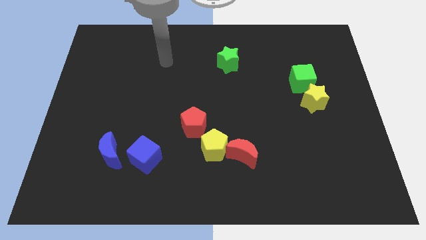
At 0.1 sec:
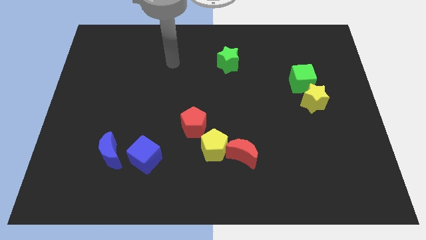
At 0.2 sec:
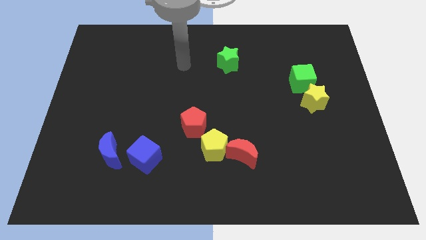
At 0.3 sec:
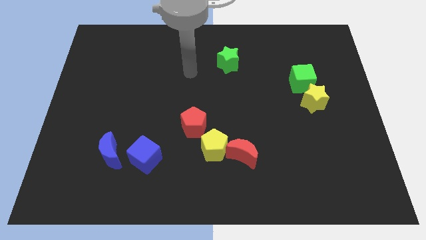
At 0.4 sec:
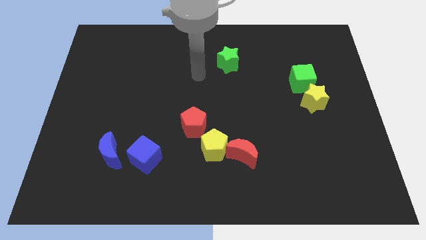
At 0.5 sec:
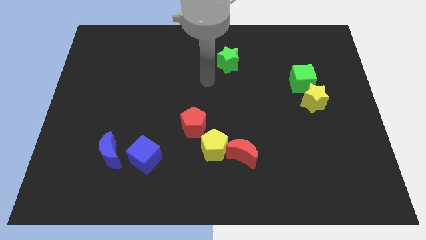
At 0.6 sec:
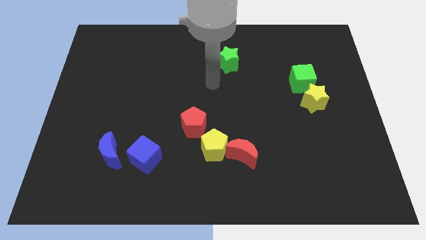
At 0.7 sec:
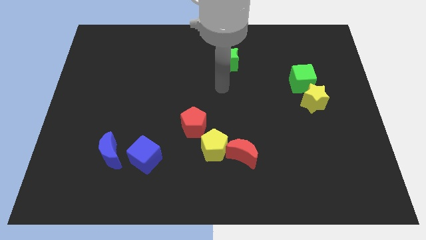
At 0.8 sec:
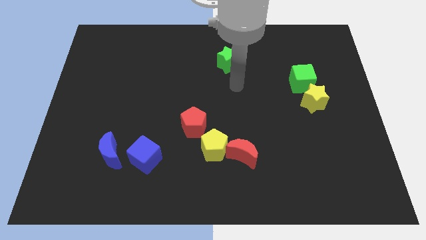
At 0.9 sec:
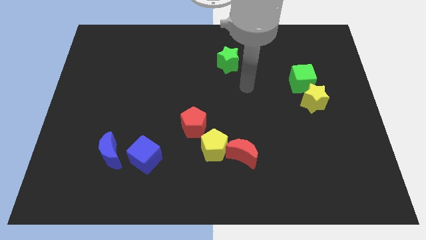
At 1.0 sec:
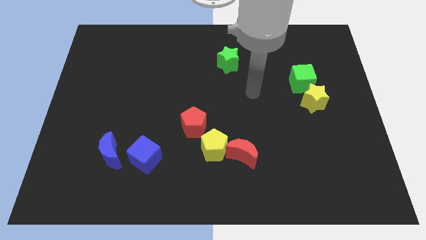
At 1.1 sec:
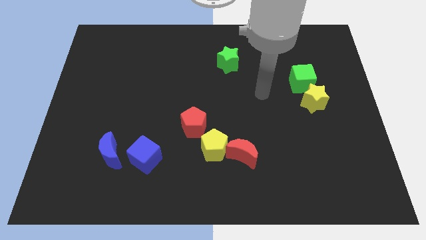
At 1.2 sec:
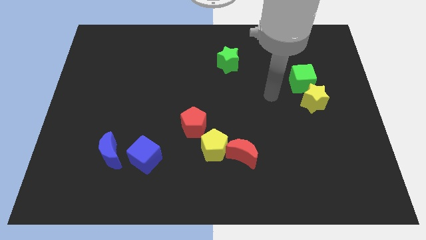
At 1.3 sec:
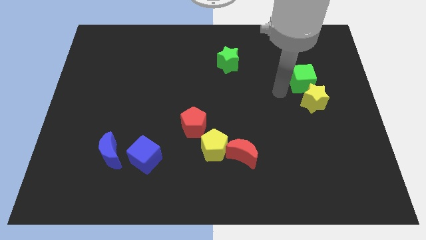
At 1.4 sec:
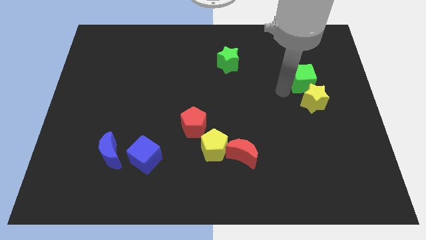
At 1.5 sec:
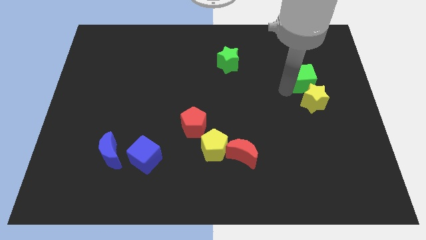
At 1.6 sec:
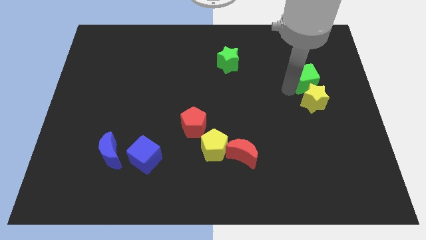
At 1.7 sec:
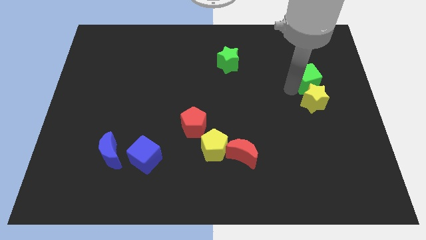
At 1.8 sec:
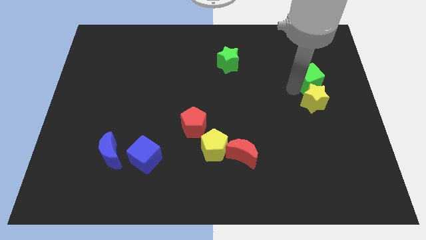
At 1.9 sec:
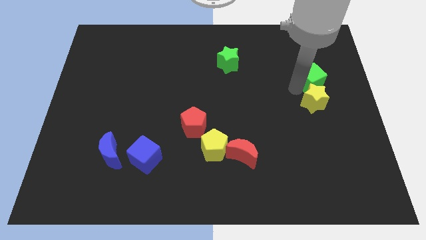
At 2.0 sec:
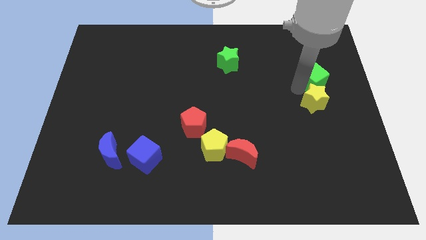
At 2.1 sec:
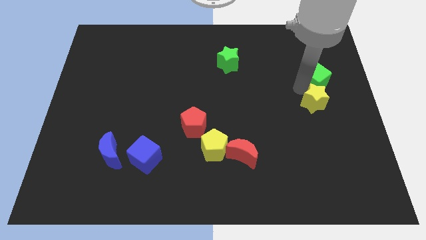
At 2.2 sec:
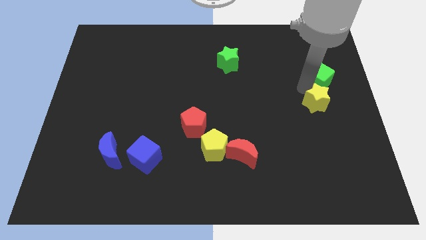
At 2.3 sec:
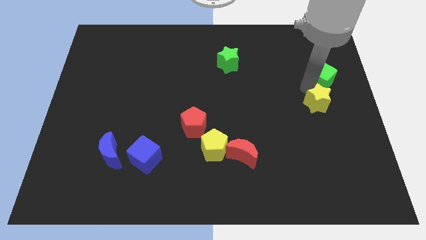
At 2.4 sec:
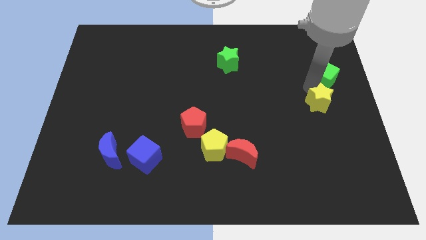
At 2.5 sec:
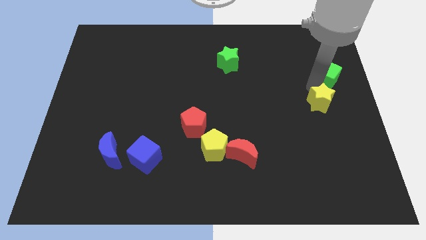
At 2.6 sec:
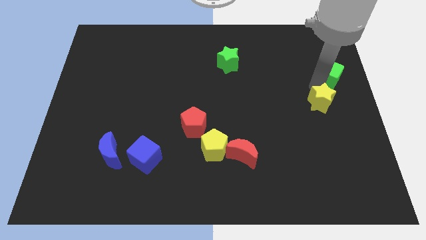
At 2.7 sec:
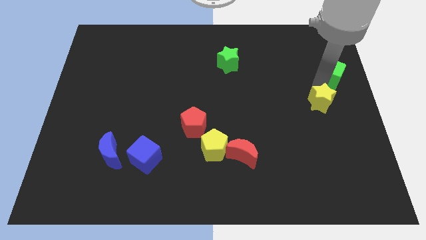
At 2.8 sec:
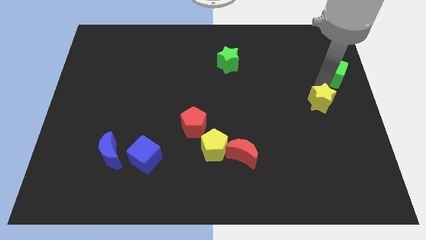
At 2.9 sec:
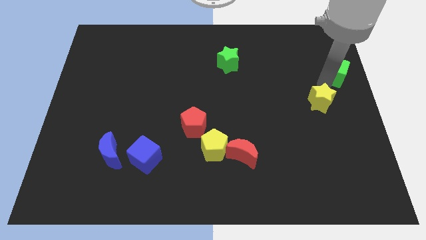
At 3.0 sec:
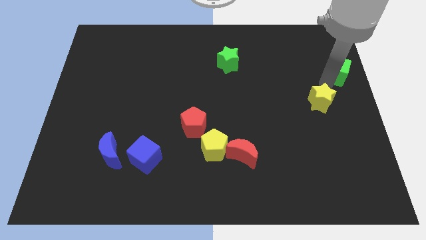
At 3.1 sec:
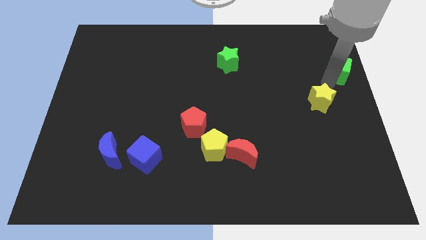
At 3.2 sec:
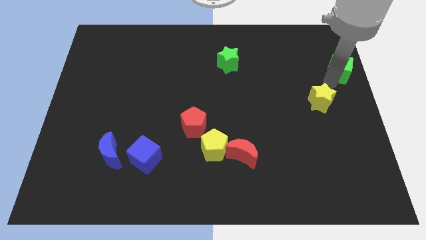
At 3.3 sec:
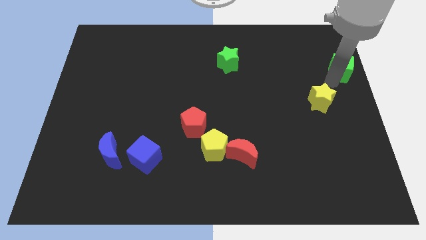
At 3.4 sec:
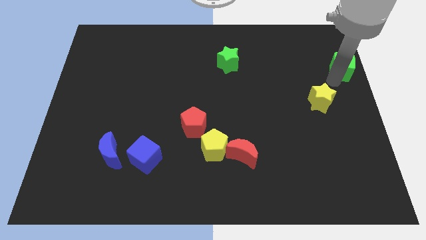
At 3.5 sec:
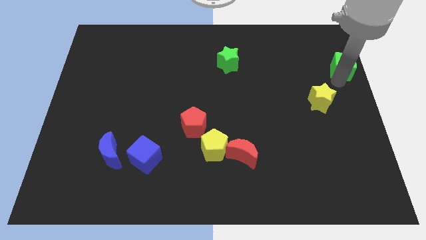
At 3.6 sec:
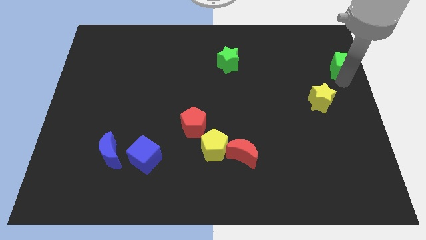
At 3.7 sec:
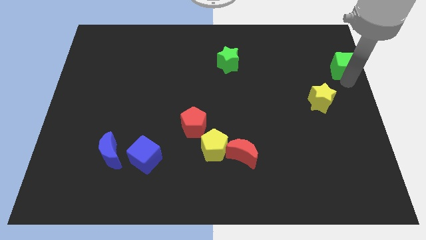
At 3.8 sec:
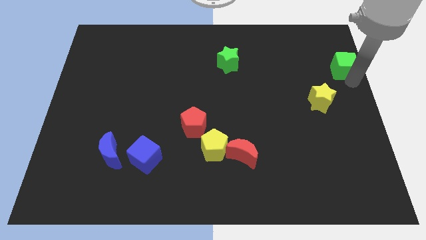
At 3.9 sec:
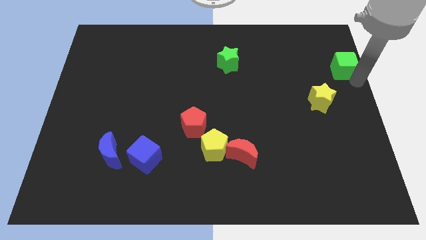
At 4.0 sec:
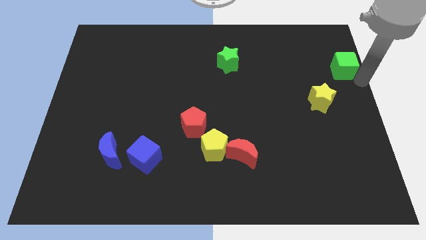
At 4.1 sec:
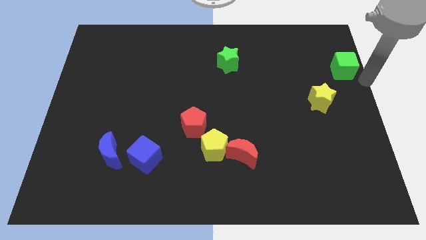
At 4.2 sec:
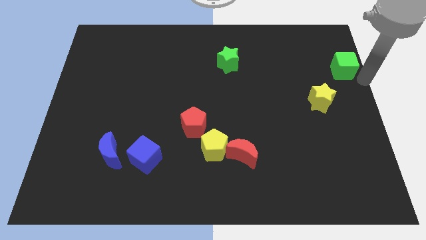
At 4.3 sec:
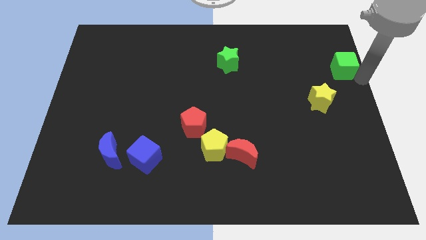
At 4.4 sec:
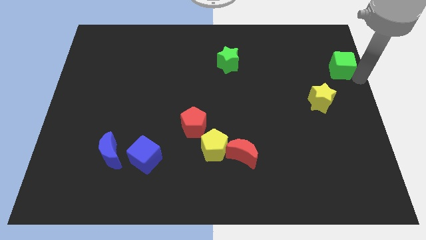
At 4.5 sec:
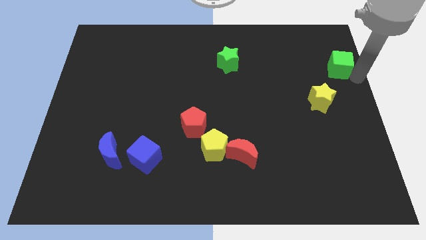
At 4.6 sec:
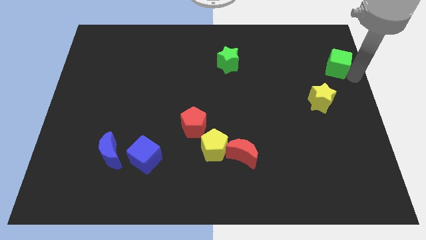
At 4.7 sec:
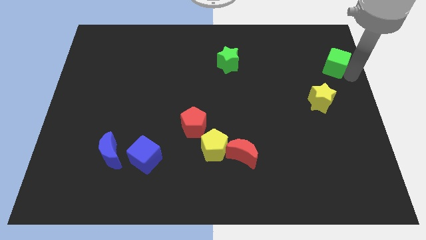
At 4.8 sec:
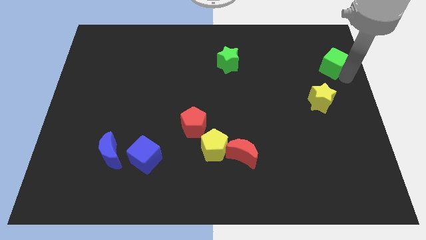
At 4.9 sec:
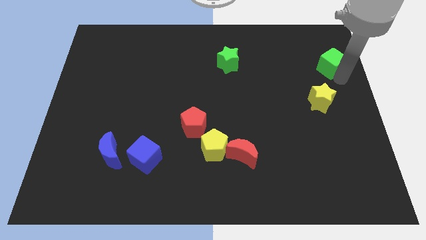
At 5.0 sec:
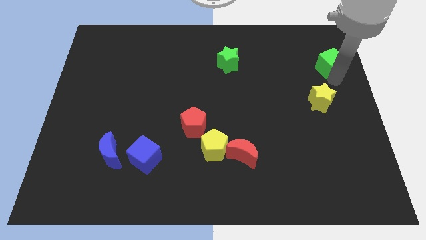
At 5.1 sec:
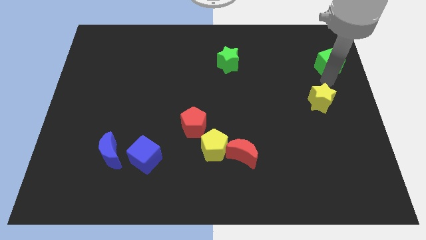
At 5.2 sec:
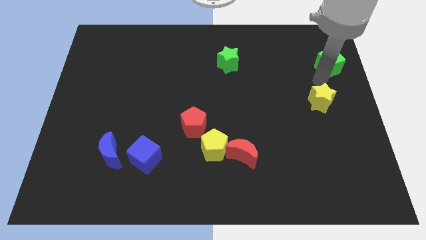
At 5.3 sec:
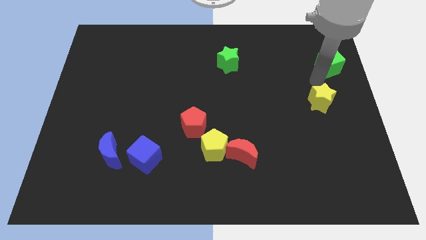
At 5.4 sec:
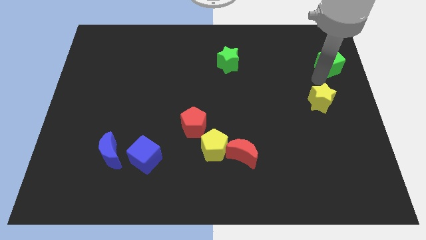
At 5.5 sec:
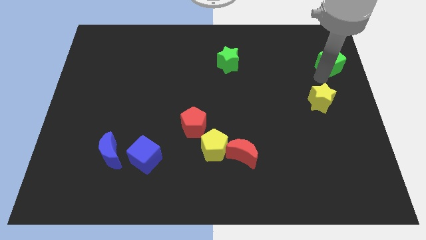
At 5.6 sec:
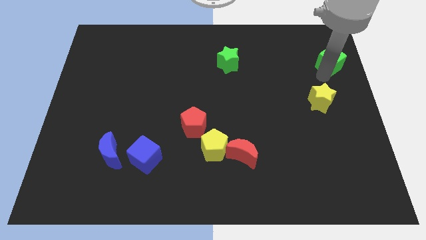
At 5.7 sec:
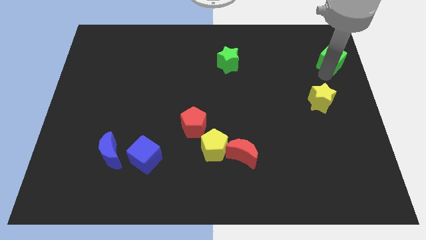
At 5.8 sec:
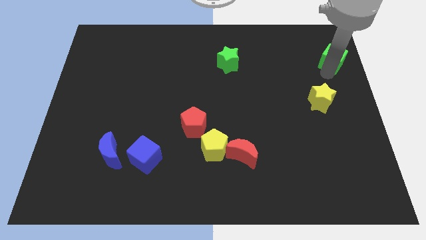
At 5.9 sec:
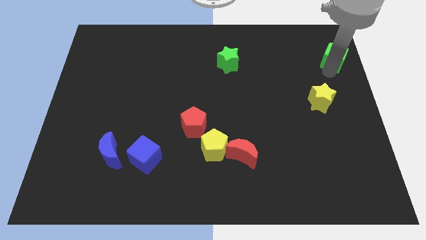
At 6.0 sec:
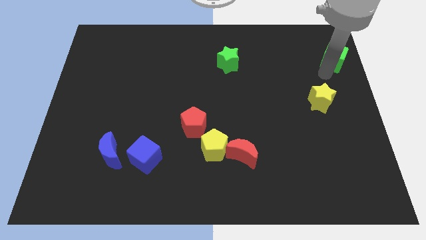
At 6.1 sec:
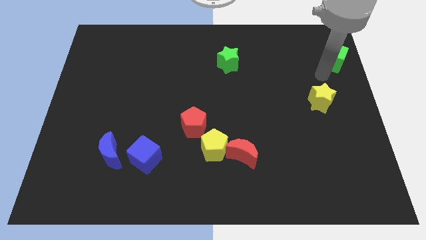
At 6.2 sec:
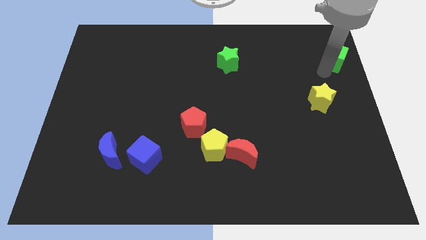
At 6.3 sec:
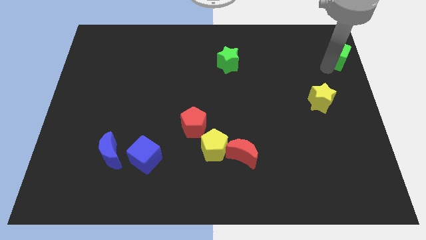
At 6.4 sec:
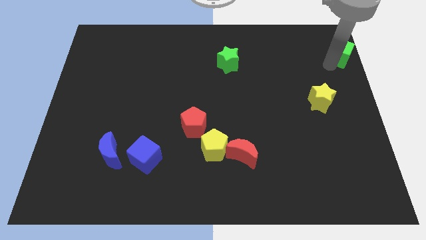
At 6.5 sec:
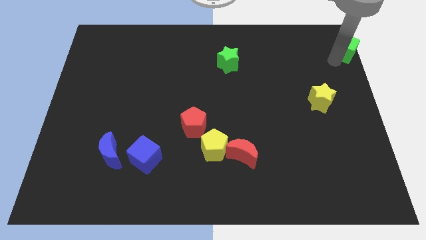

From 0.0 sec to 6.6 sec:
move the green cube to the top right
